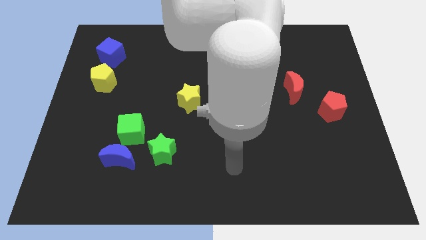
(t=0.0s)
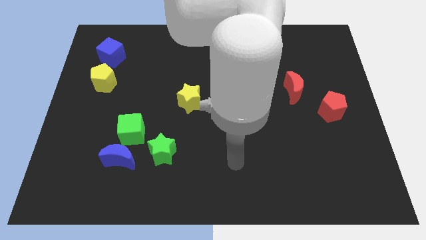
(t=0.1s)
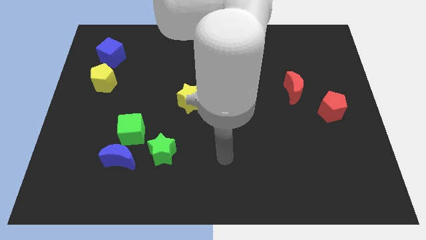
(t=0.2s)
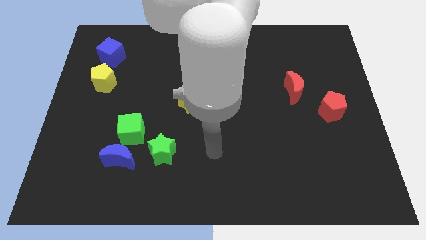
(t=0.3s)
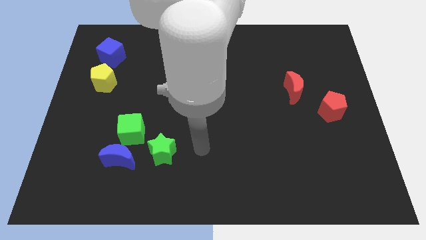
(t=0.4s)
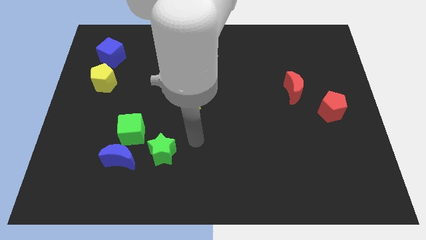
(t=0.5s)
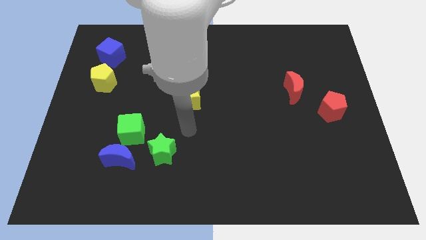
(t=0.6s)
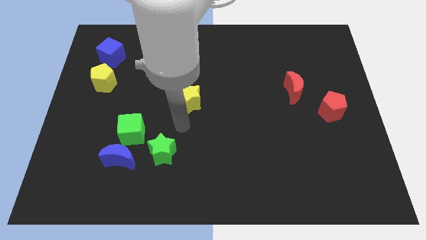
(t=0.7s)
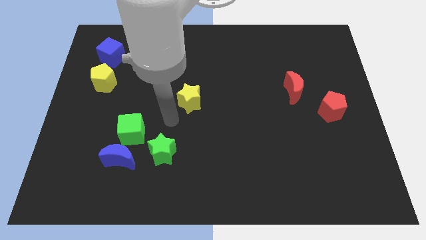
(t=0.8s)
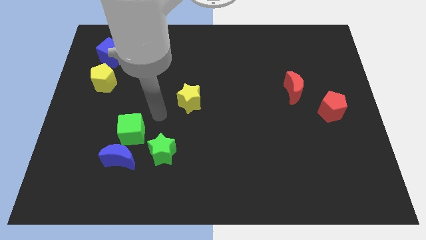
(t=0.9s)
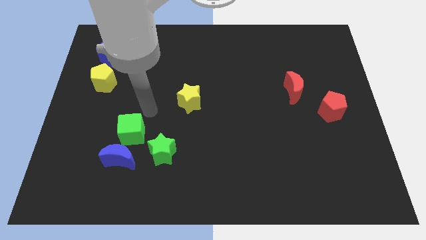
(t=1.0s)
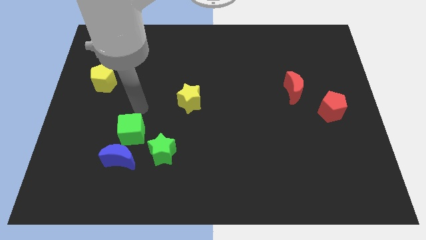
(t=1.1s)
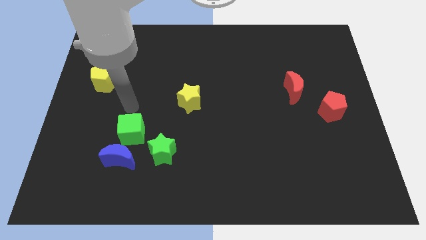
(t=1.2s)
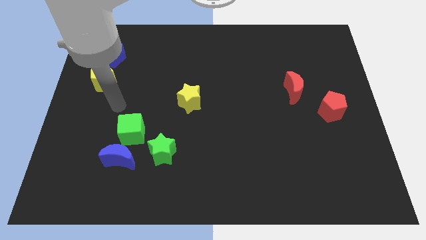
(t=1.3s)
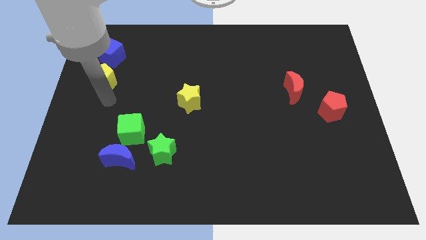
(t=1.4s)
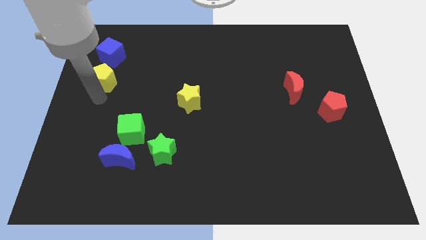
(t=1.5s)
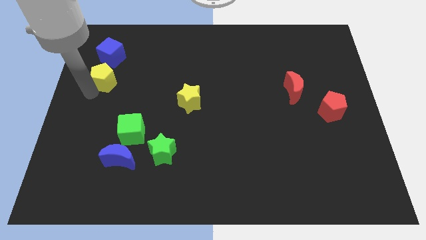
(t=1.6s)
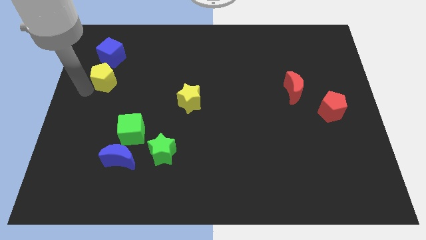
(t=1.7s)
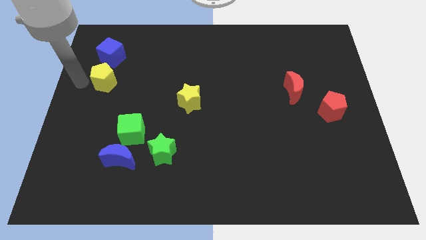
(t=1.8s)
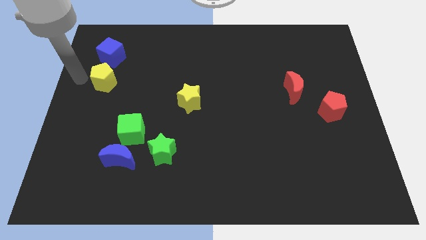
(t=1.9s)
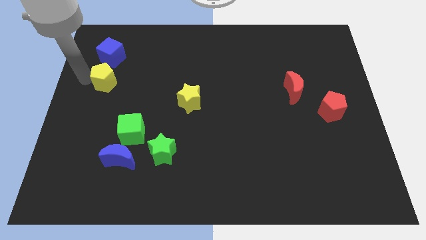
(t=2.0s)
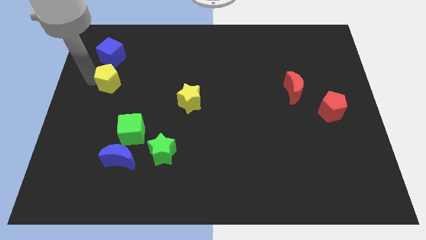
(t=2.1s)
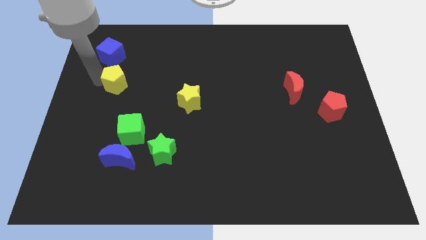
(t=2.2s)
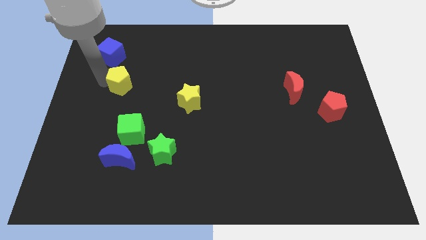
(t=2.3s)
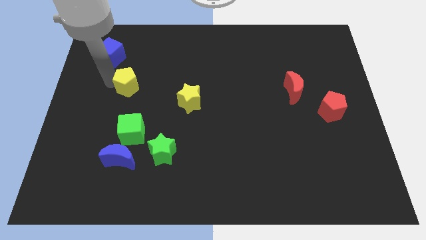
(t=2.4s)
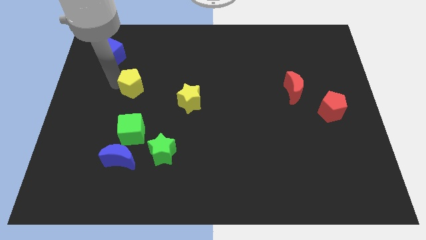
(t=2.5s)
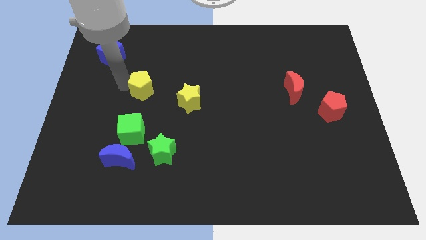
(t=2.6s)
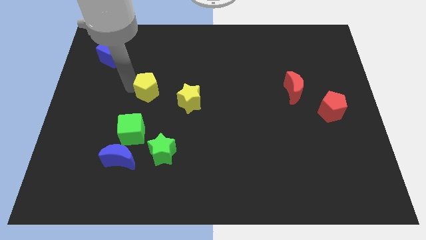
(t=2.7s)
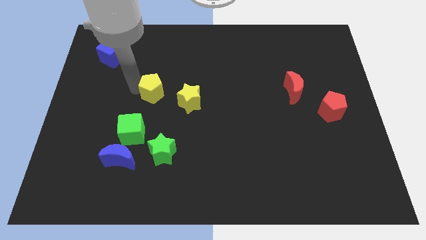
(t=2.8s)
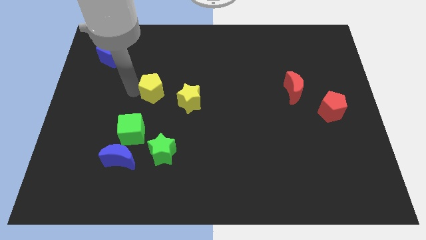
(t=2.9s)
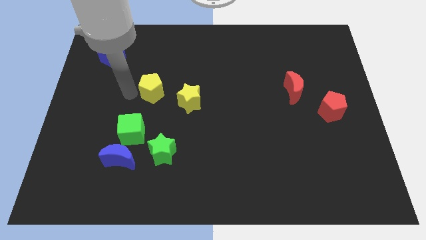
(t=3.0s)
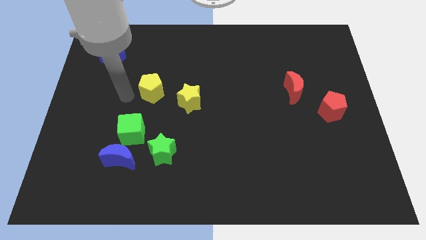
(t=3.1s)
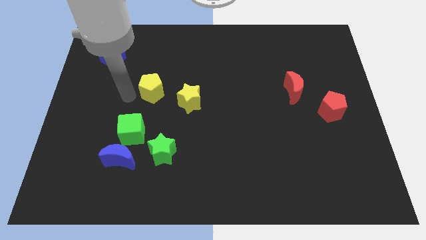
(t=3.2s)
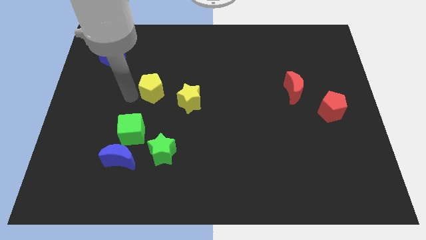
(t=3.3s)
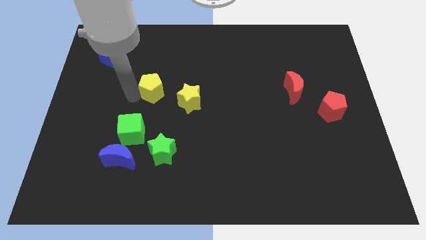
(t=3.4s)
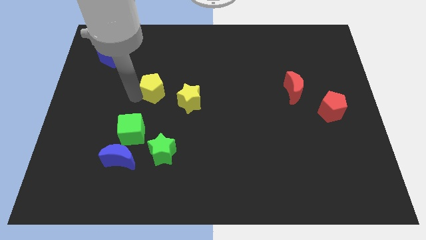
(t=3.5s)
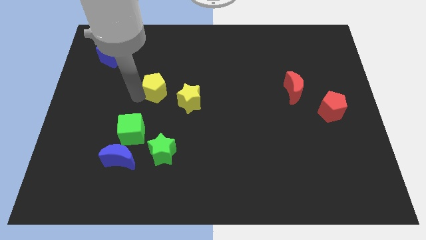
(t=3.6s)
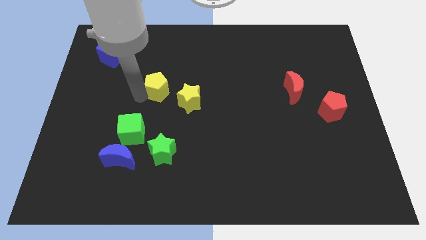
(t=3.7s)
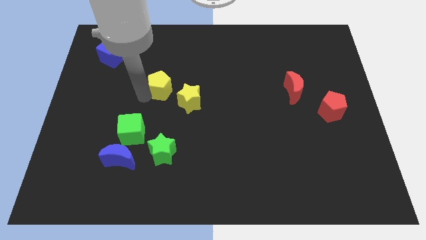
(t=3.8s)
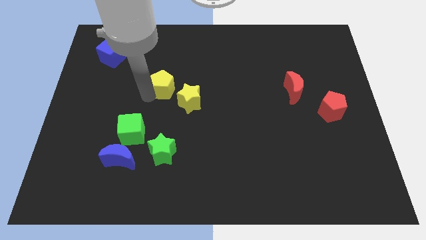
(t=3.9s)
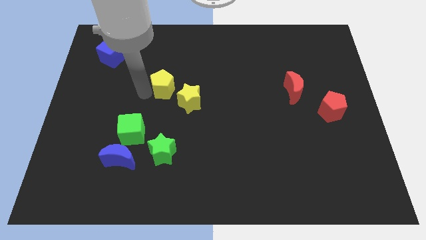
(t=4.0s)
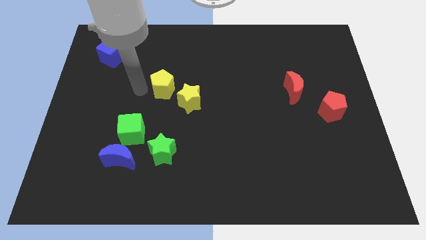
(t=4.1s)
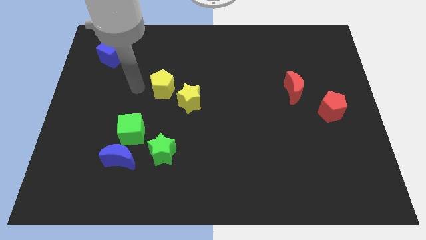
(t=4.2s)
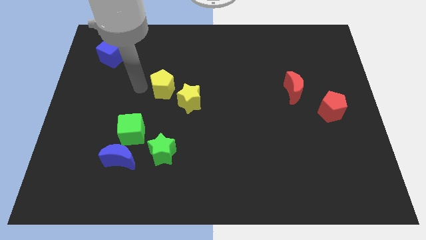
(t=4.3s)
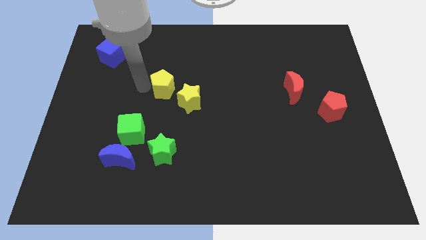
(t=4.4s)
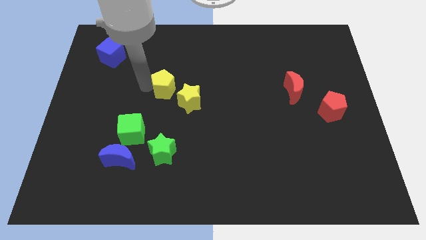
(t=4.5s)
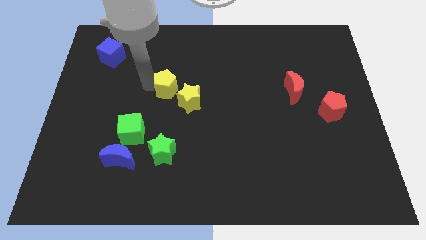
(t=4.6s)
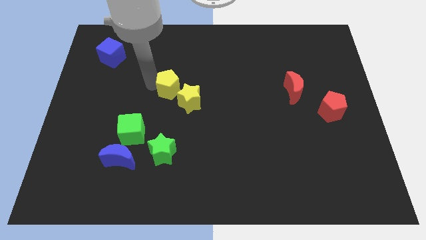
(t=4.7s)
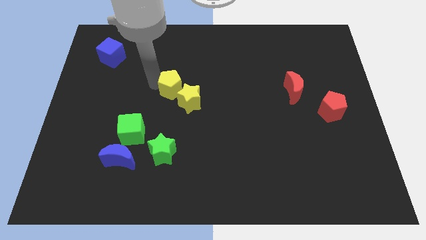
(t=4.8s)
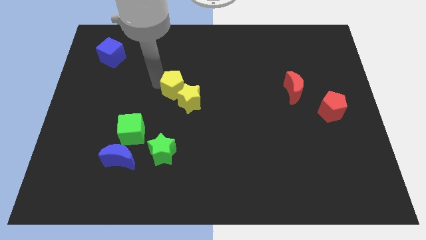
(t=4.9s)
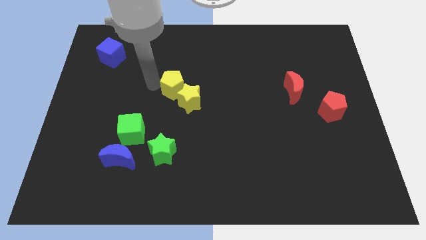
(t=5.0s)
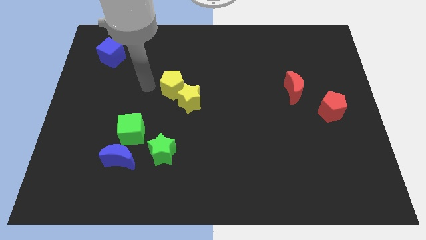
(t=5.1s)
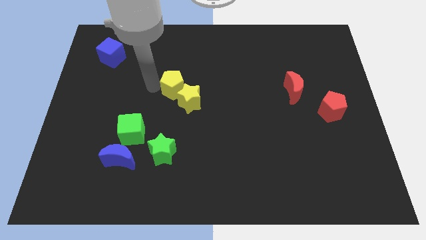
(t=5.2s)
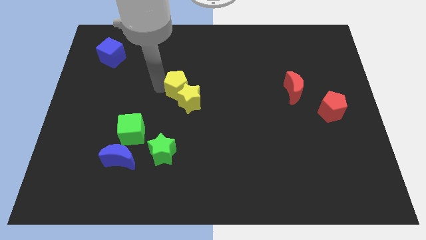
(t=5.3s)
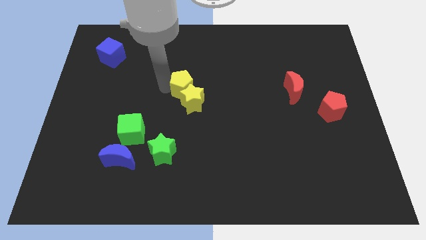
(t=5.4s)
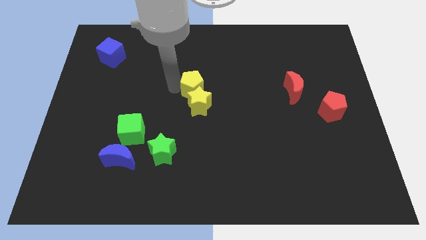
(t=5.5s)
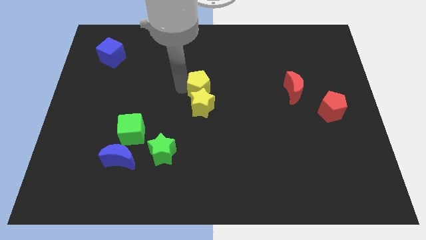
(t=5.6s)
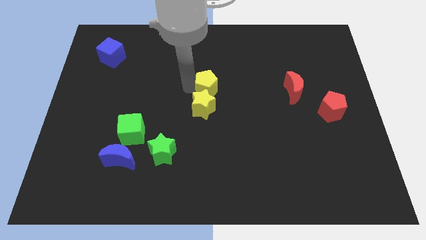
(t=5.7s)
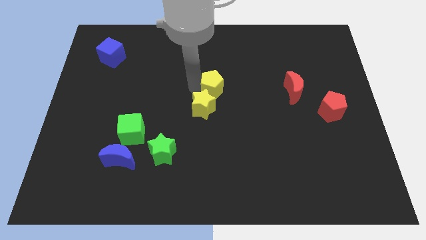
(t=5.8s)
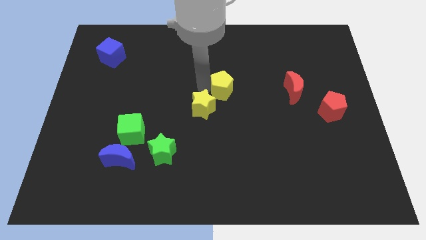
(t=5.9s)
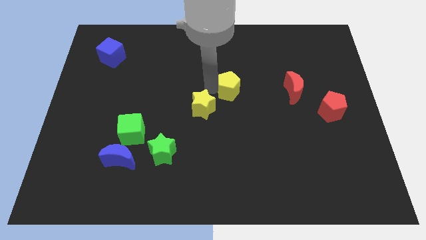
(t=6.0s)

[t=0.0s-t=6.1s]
move the yellow pentagon to the left of the red moon

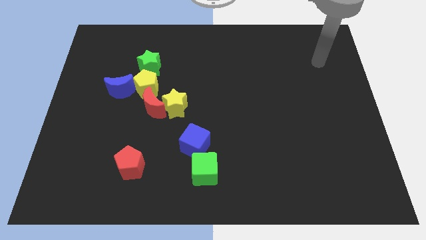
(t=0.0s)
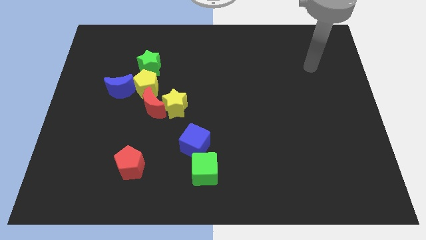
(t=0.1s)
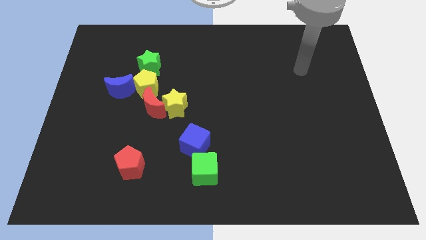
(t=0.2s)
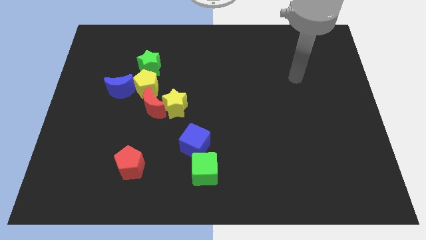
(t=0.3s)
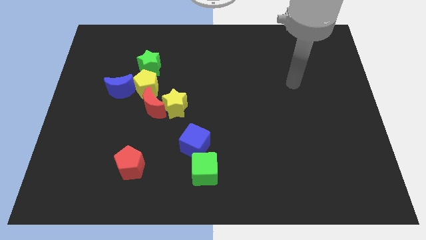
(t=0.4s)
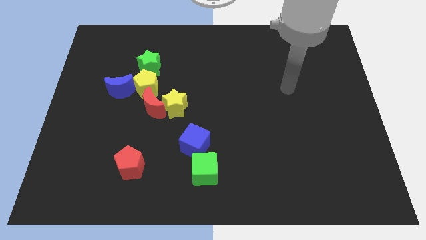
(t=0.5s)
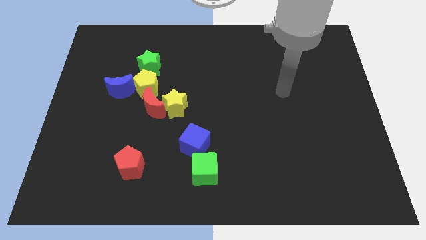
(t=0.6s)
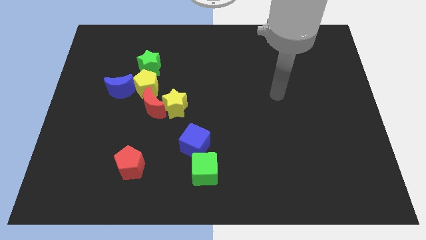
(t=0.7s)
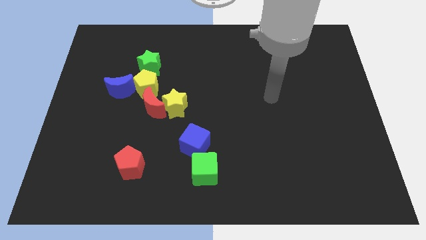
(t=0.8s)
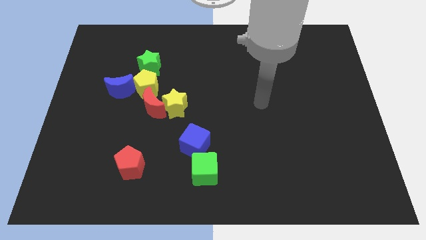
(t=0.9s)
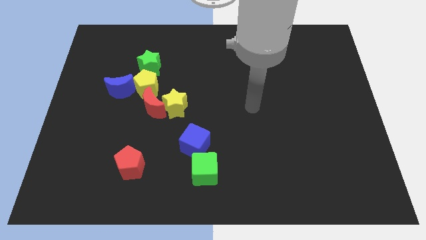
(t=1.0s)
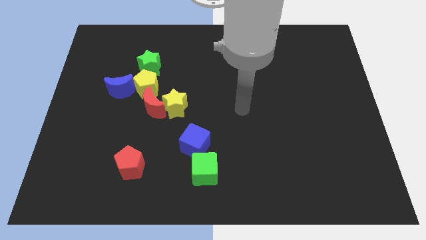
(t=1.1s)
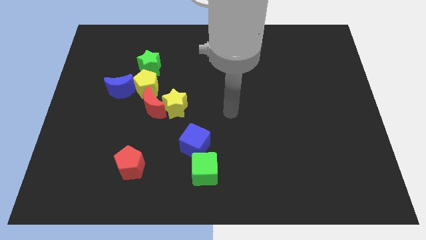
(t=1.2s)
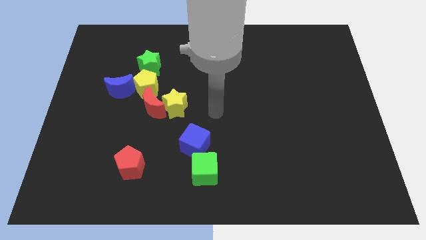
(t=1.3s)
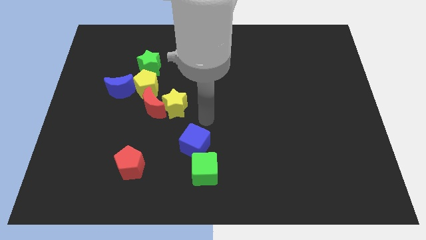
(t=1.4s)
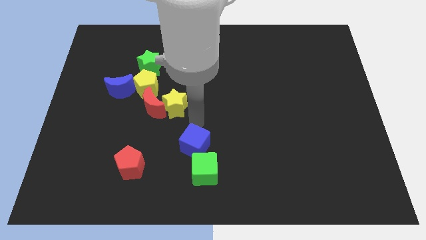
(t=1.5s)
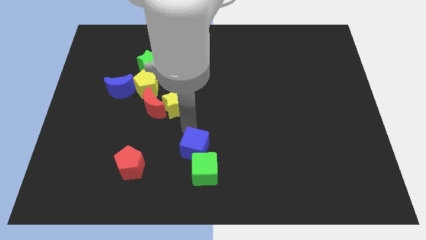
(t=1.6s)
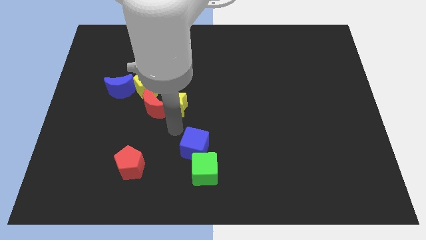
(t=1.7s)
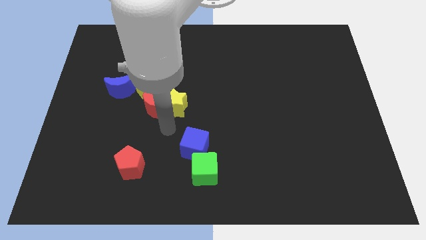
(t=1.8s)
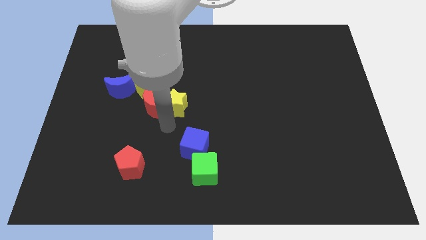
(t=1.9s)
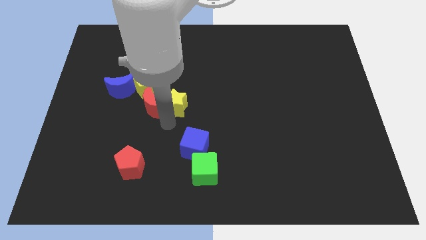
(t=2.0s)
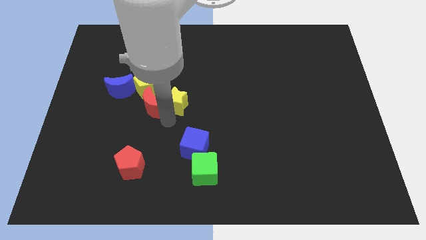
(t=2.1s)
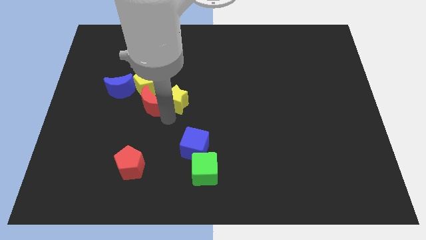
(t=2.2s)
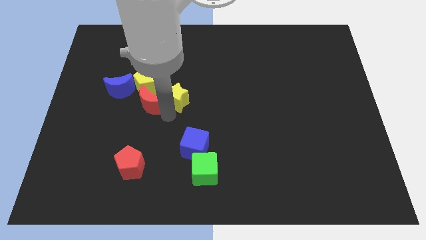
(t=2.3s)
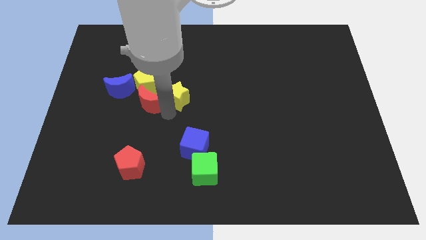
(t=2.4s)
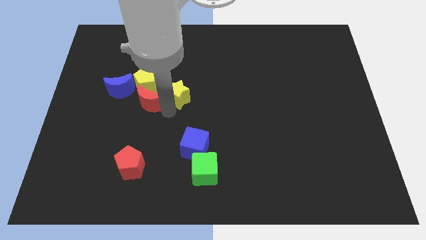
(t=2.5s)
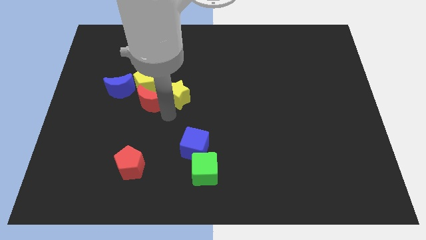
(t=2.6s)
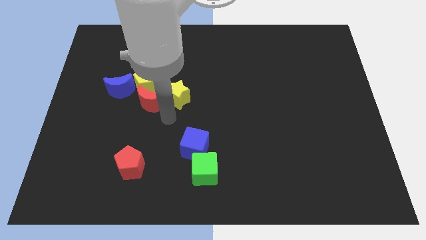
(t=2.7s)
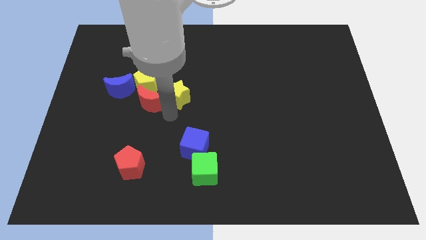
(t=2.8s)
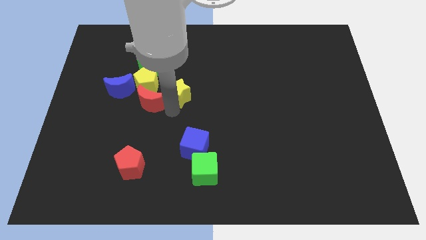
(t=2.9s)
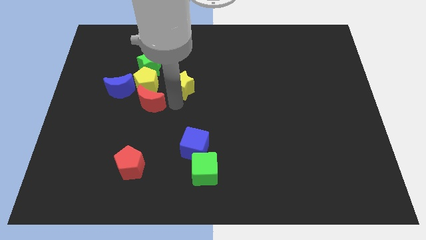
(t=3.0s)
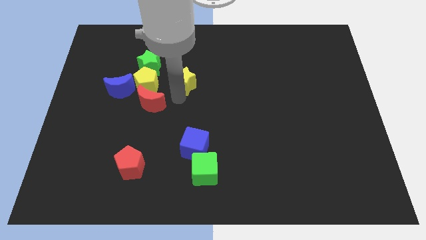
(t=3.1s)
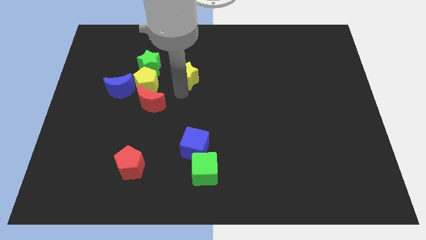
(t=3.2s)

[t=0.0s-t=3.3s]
push the yellow star right of the green star
